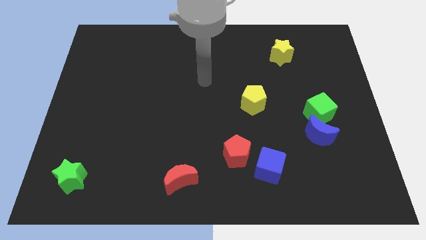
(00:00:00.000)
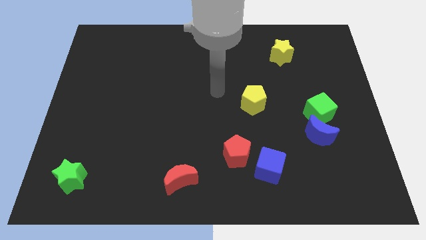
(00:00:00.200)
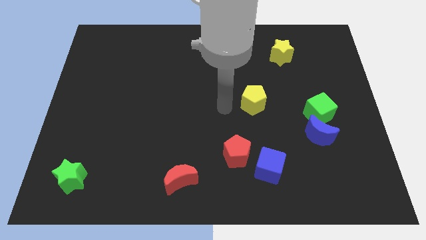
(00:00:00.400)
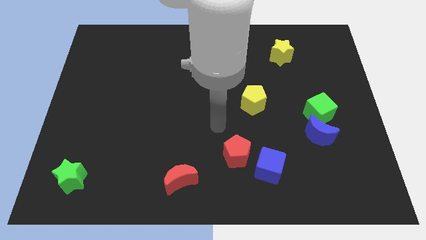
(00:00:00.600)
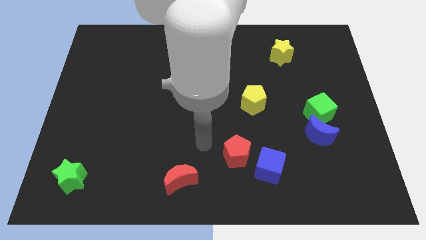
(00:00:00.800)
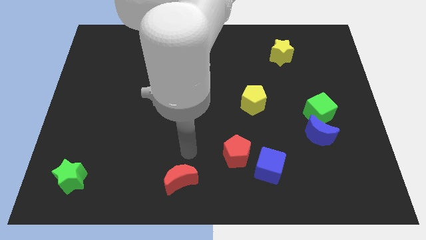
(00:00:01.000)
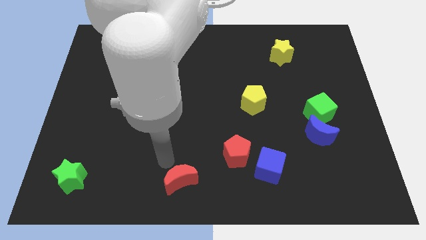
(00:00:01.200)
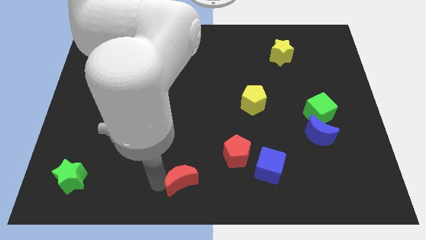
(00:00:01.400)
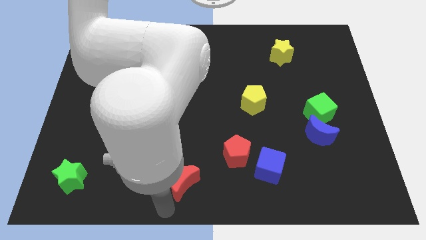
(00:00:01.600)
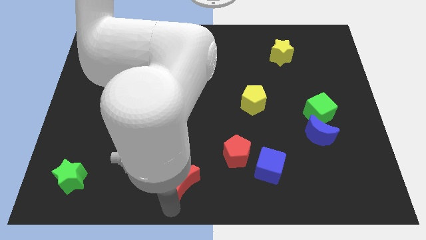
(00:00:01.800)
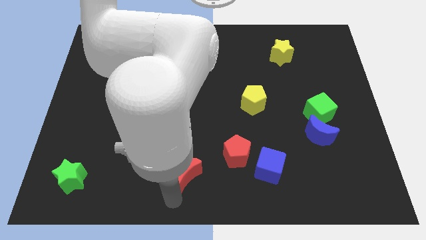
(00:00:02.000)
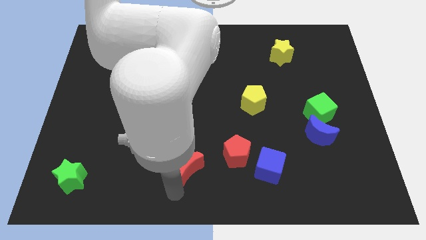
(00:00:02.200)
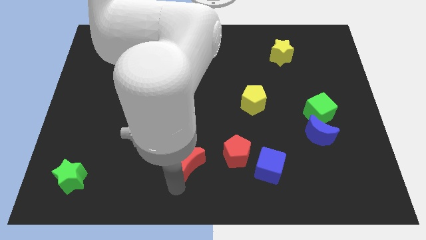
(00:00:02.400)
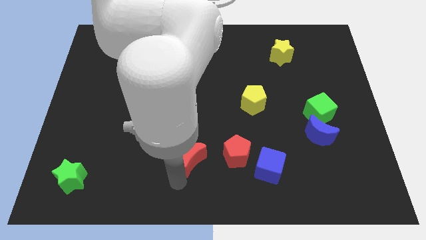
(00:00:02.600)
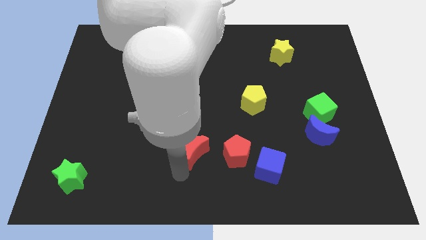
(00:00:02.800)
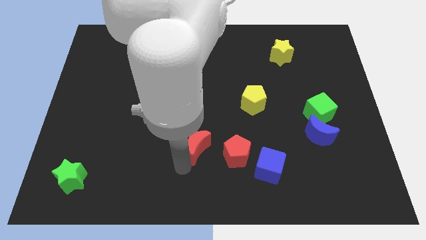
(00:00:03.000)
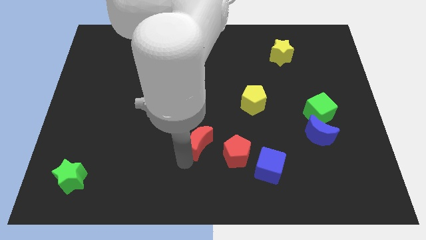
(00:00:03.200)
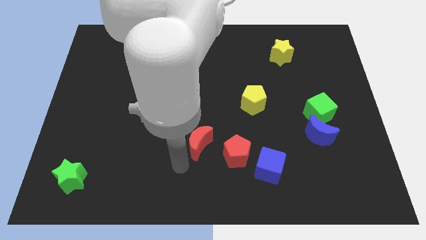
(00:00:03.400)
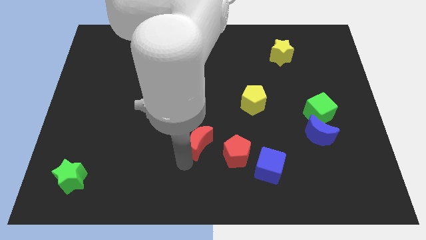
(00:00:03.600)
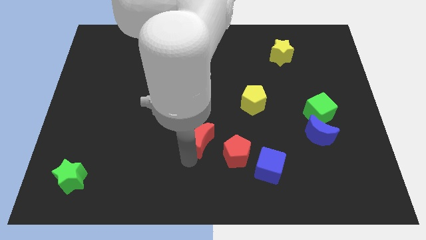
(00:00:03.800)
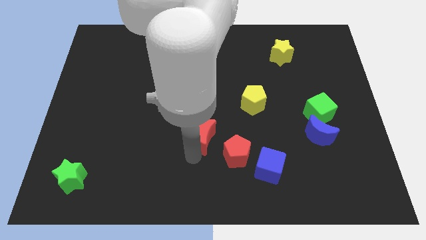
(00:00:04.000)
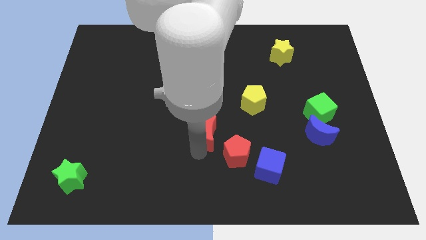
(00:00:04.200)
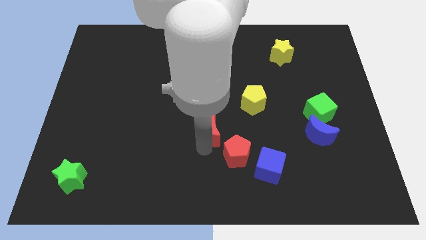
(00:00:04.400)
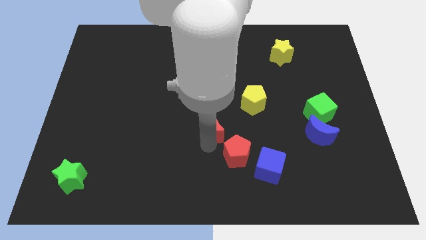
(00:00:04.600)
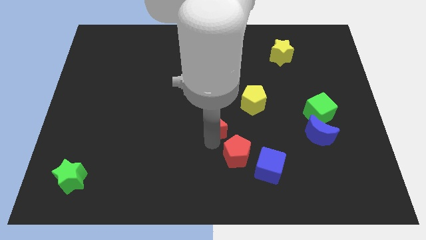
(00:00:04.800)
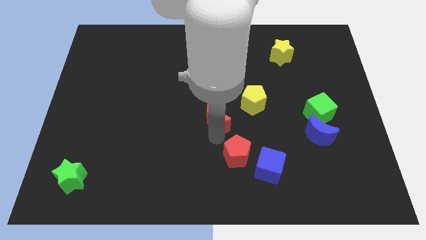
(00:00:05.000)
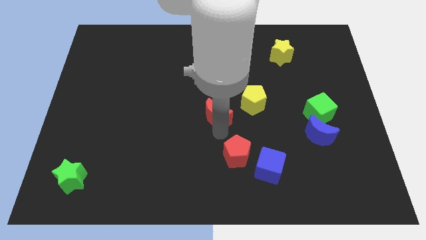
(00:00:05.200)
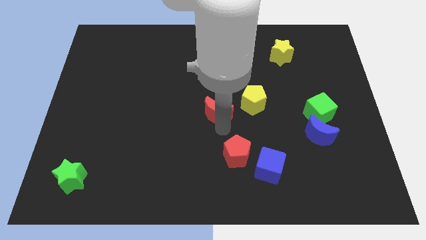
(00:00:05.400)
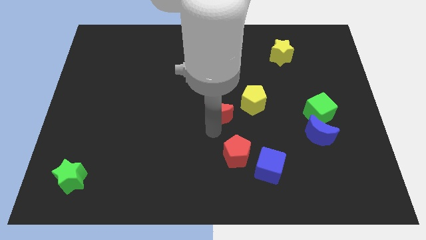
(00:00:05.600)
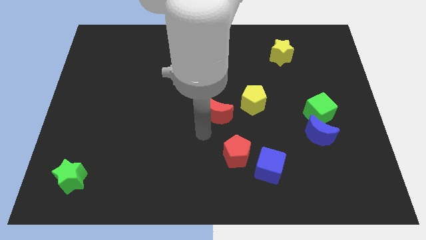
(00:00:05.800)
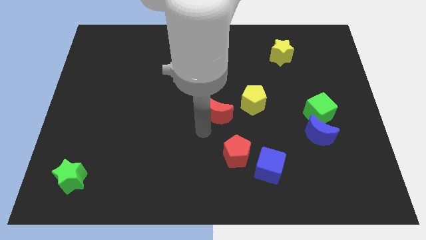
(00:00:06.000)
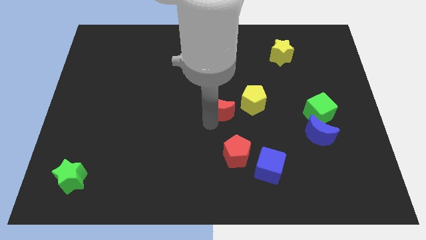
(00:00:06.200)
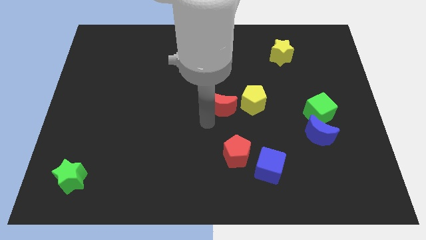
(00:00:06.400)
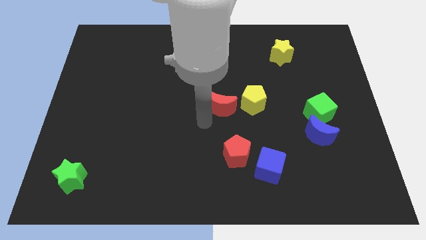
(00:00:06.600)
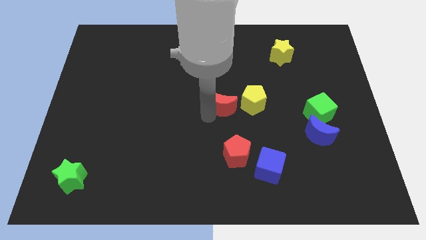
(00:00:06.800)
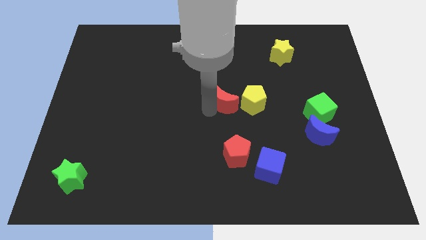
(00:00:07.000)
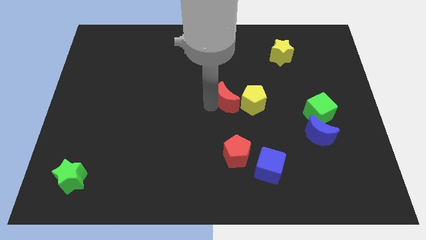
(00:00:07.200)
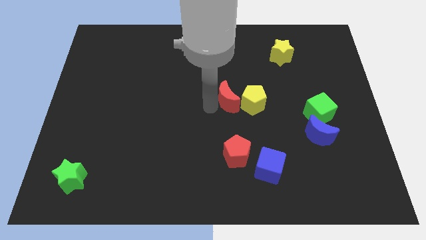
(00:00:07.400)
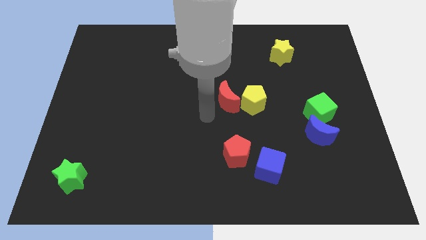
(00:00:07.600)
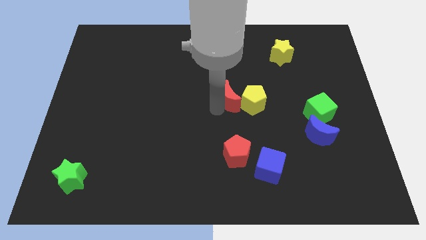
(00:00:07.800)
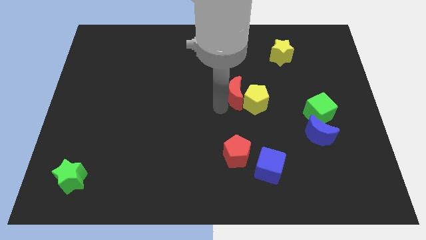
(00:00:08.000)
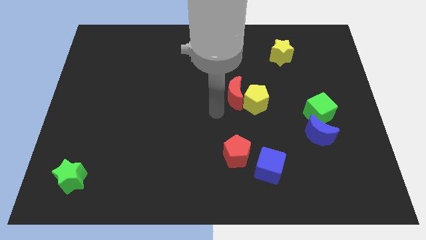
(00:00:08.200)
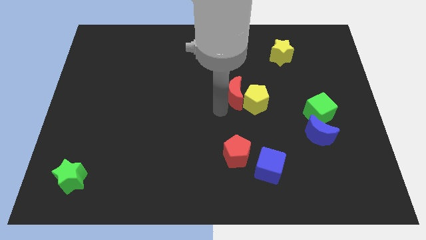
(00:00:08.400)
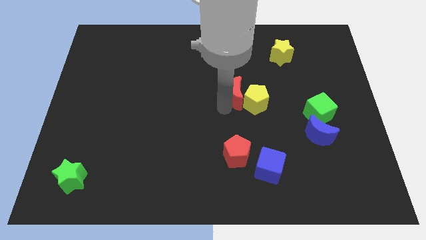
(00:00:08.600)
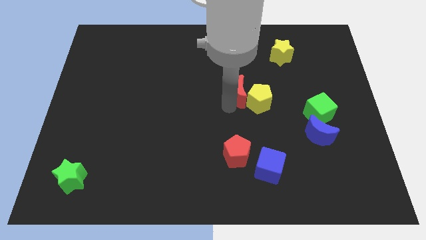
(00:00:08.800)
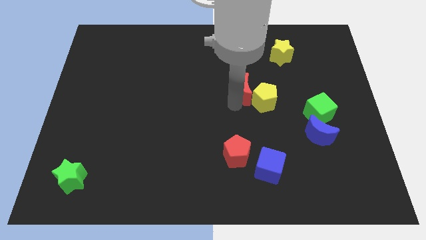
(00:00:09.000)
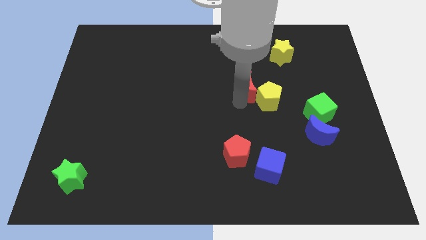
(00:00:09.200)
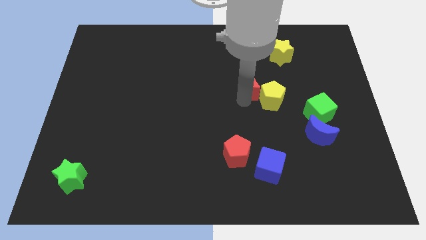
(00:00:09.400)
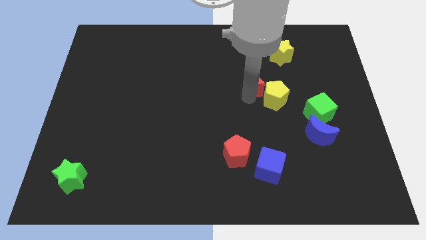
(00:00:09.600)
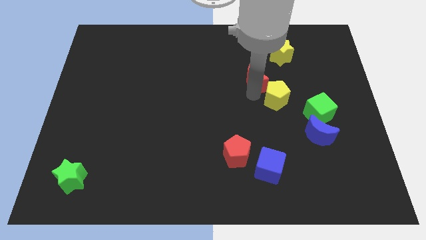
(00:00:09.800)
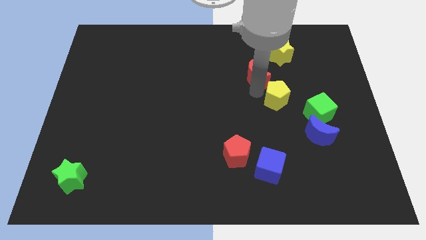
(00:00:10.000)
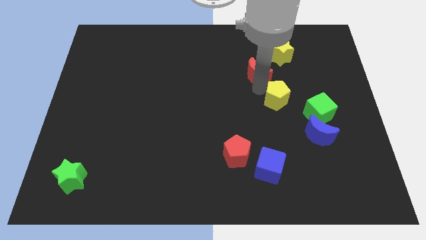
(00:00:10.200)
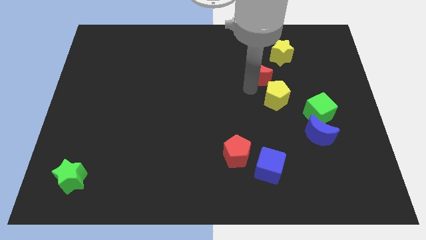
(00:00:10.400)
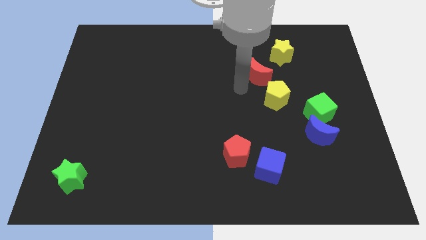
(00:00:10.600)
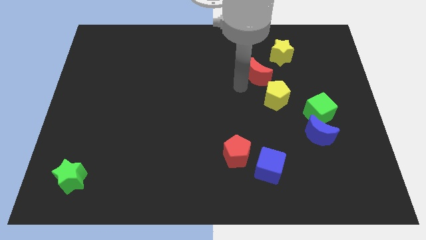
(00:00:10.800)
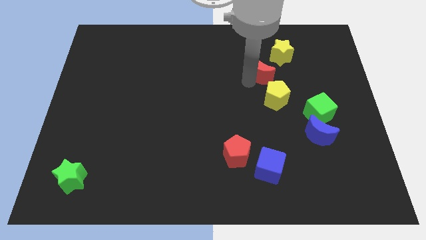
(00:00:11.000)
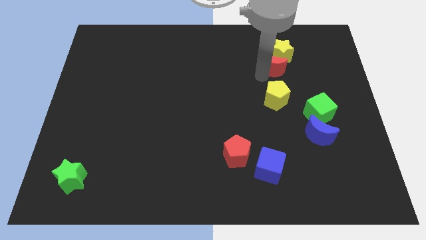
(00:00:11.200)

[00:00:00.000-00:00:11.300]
slide the red moon towards the yellow star

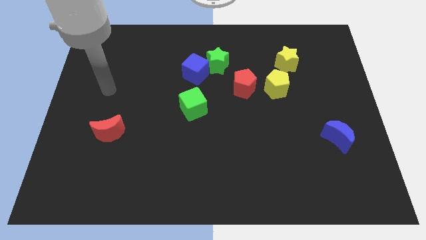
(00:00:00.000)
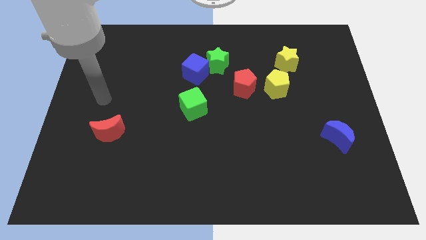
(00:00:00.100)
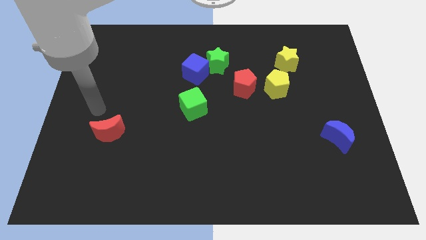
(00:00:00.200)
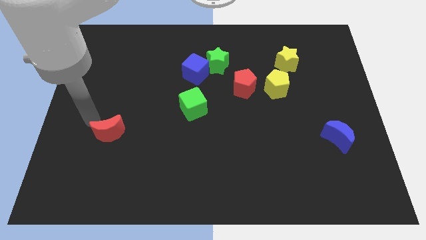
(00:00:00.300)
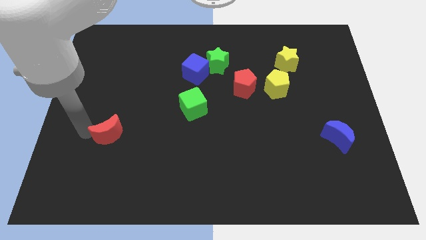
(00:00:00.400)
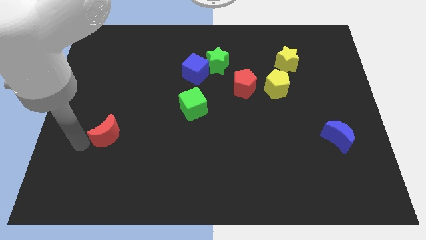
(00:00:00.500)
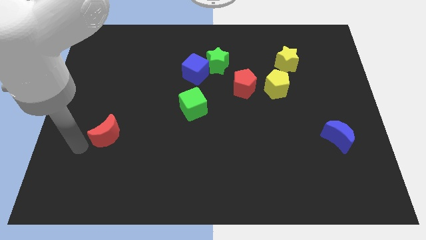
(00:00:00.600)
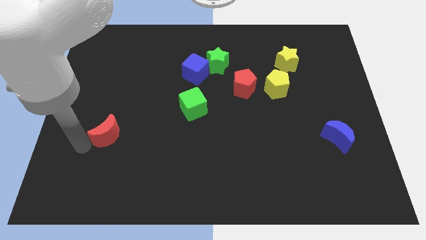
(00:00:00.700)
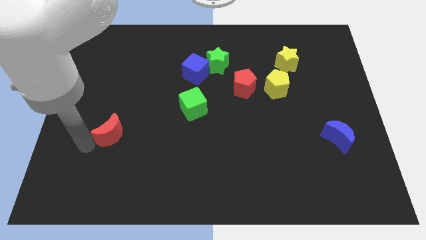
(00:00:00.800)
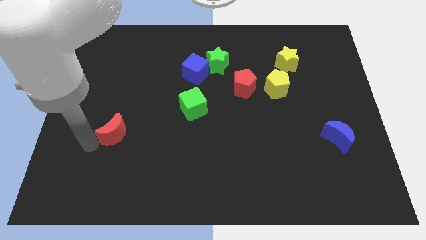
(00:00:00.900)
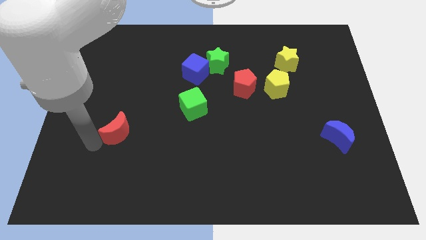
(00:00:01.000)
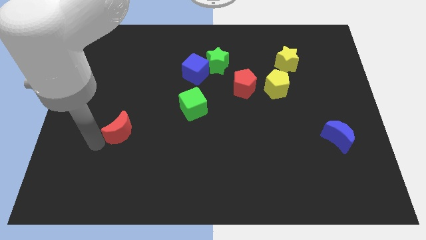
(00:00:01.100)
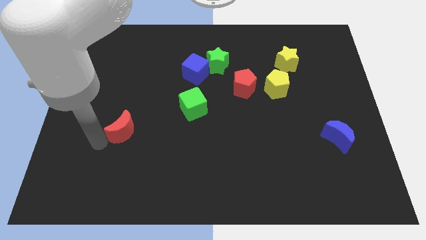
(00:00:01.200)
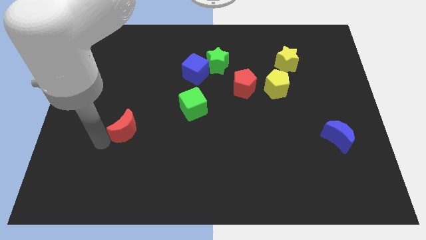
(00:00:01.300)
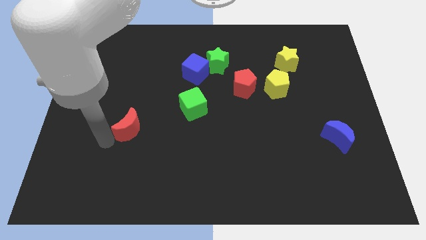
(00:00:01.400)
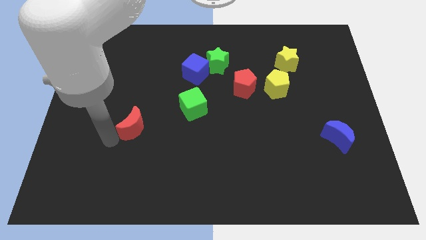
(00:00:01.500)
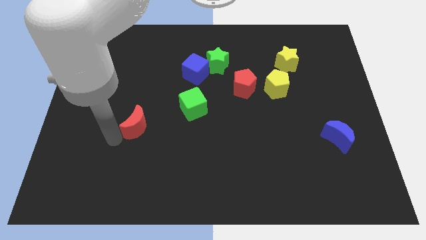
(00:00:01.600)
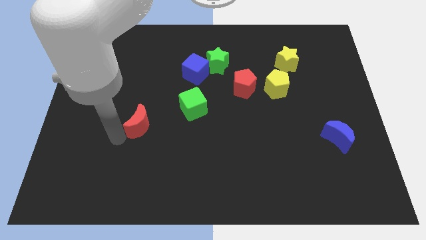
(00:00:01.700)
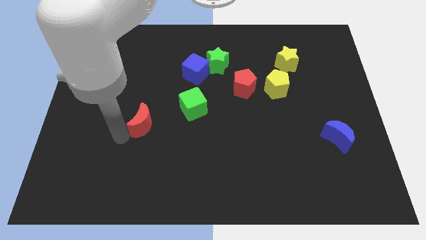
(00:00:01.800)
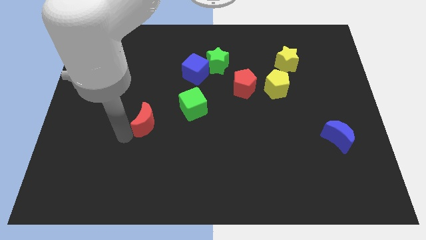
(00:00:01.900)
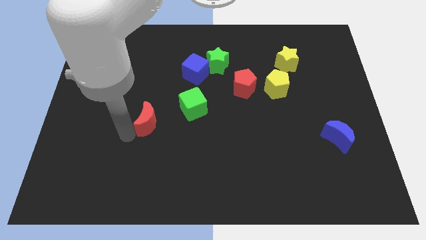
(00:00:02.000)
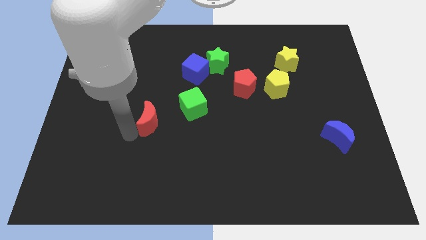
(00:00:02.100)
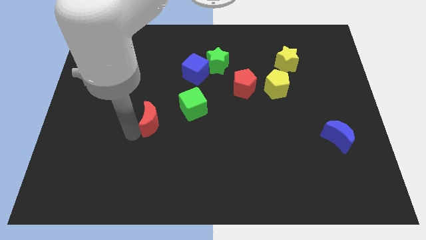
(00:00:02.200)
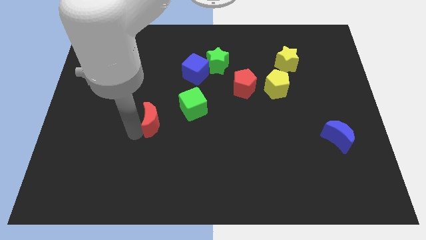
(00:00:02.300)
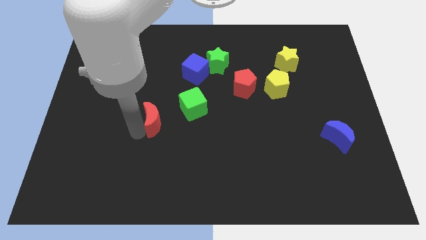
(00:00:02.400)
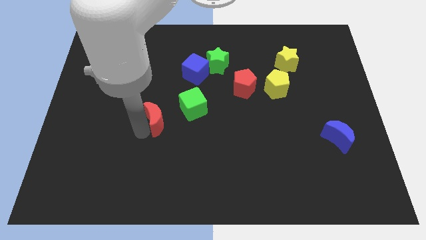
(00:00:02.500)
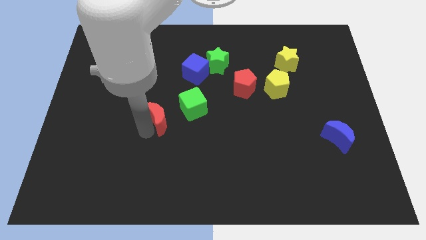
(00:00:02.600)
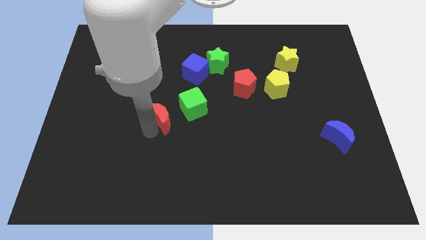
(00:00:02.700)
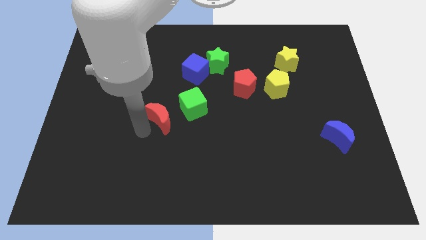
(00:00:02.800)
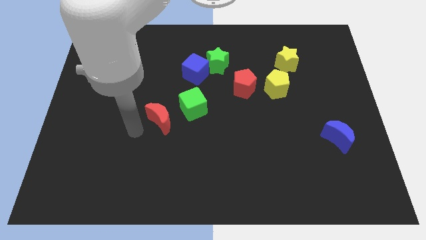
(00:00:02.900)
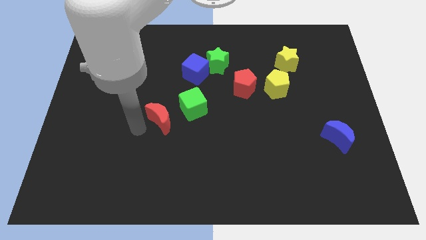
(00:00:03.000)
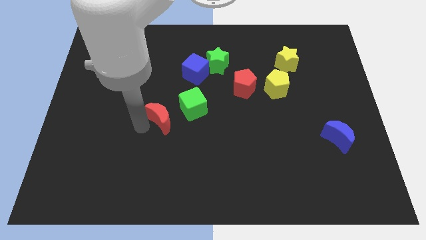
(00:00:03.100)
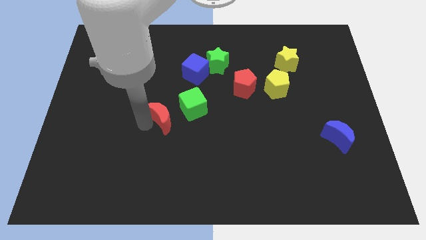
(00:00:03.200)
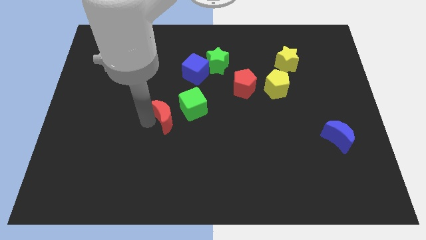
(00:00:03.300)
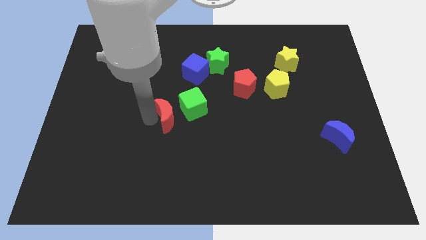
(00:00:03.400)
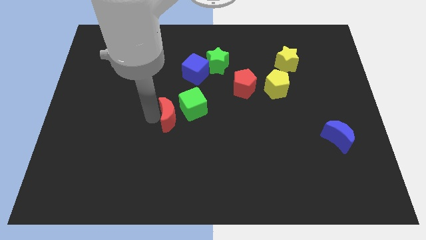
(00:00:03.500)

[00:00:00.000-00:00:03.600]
push the red moon towards the green cube
